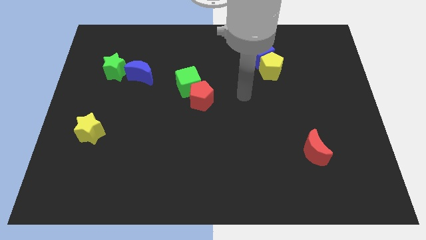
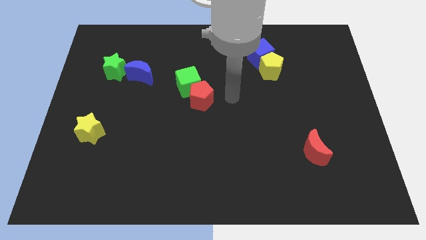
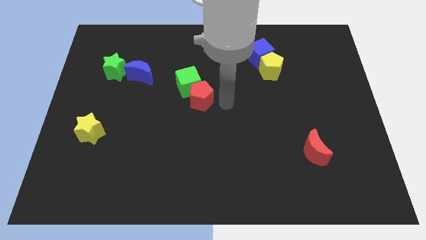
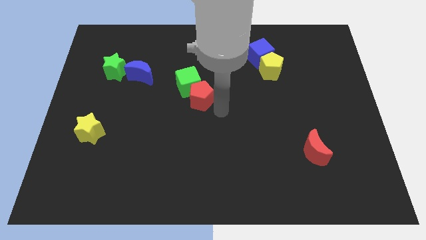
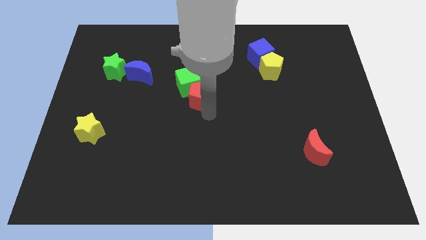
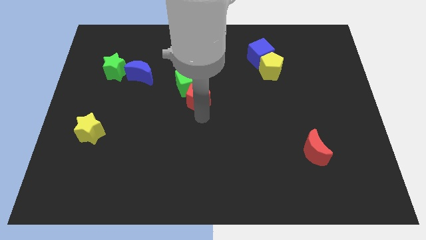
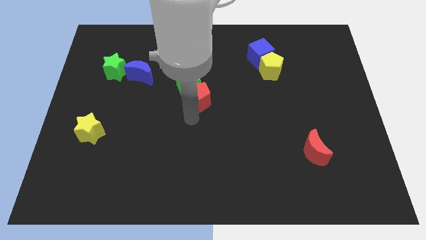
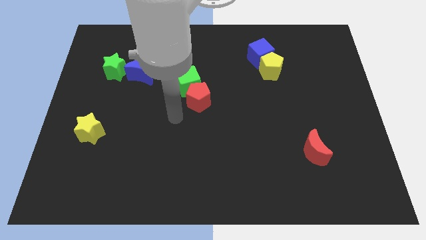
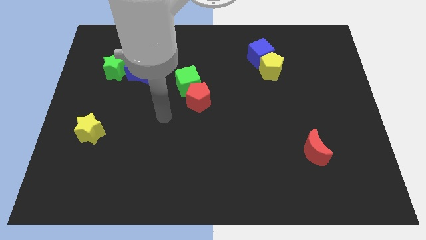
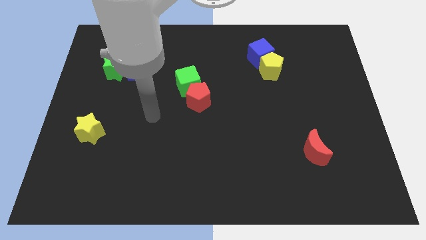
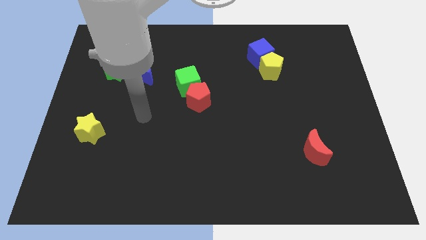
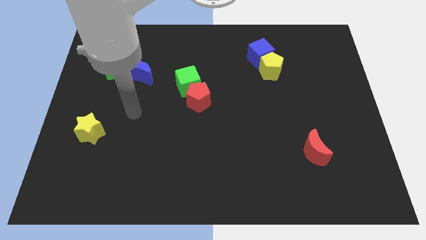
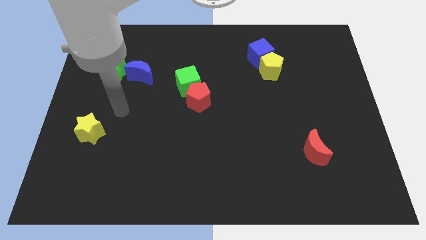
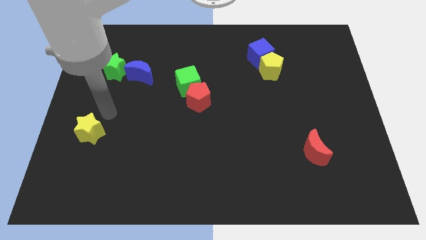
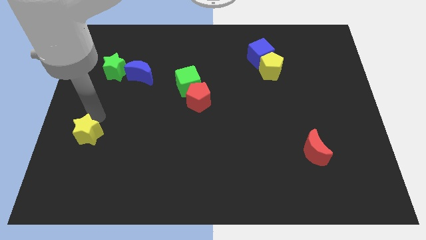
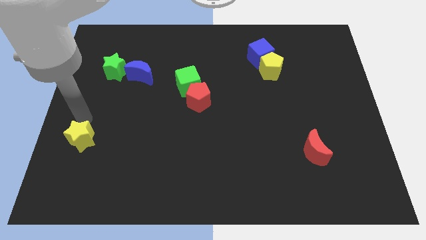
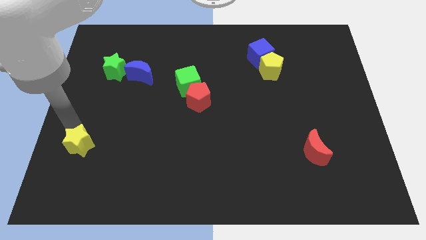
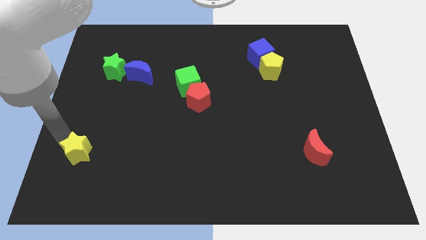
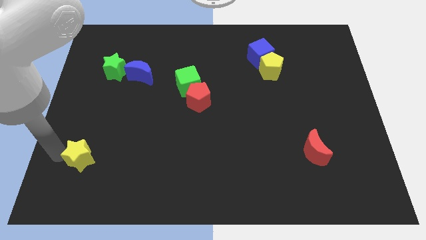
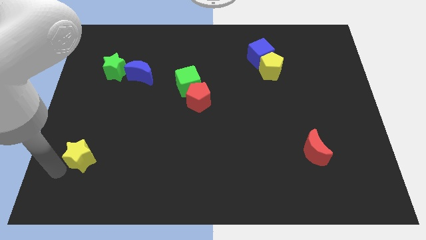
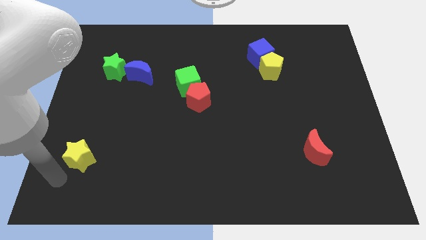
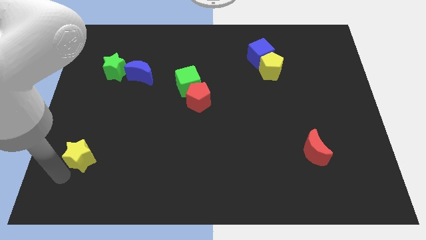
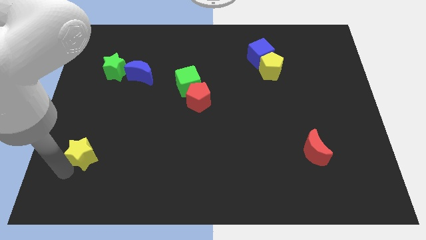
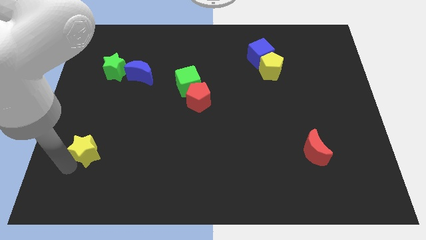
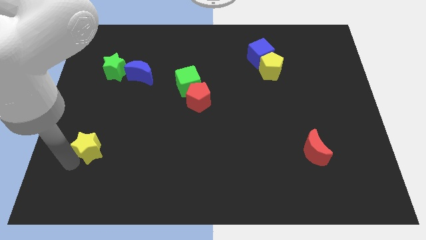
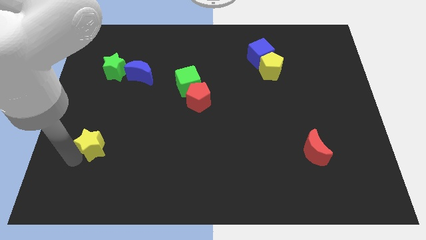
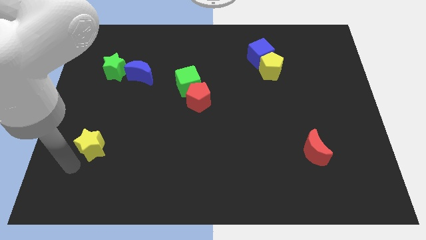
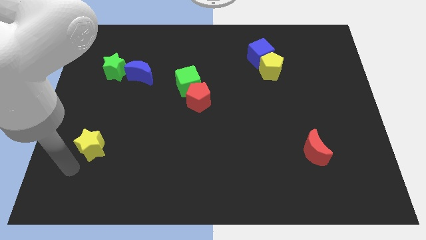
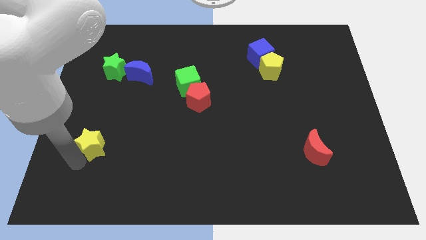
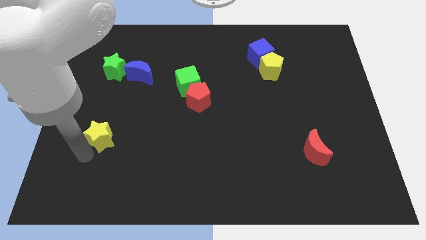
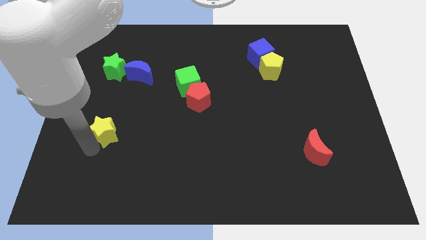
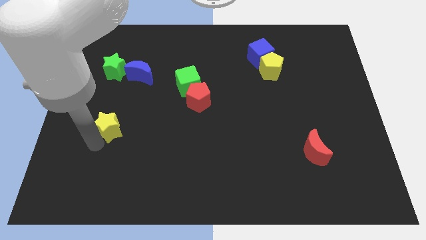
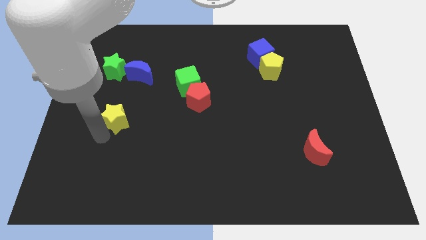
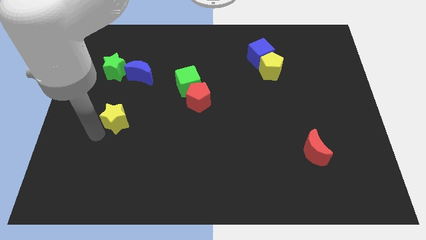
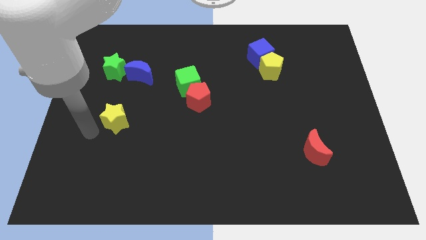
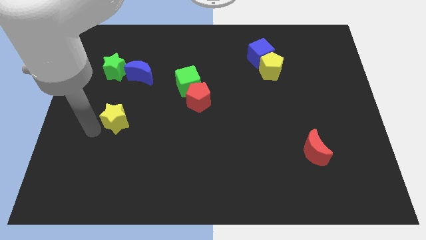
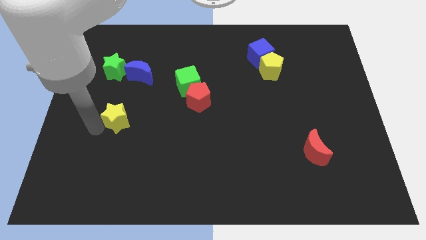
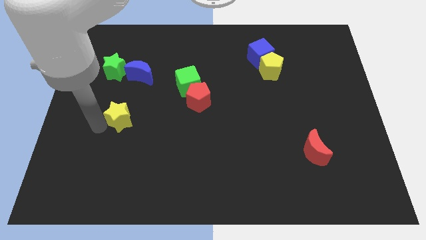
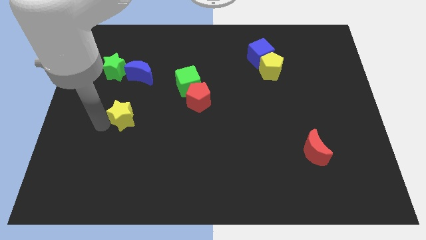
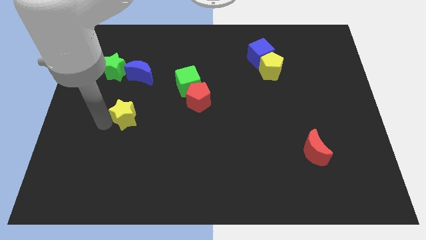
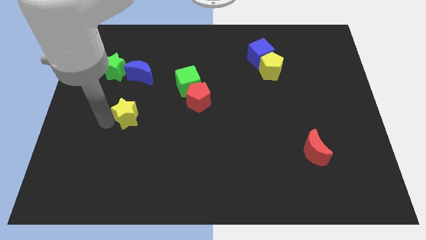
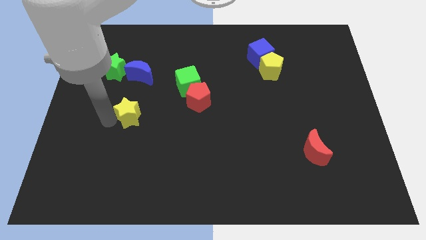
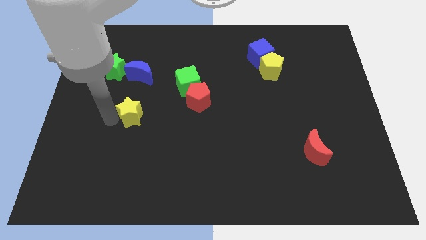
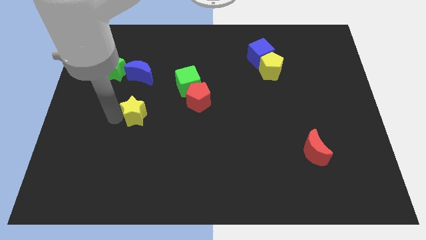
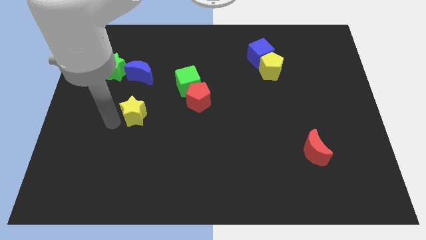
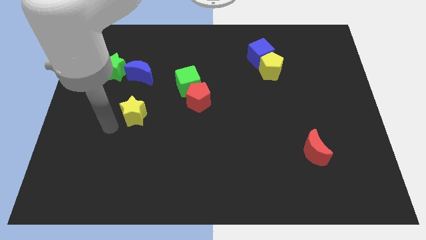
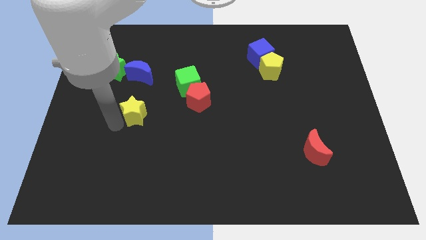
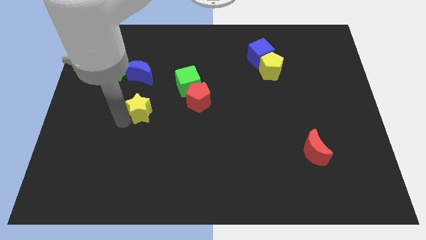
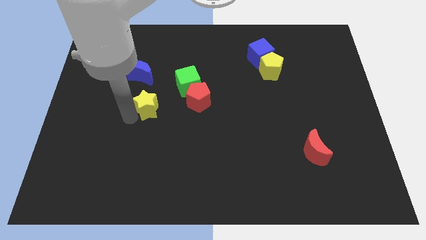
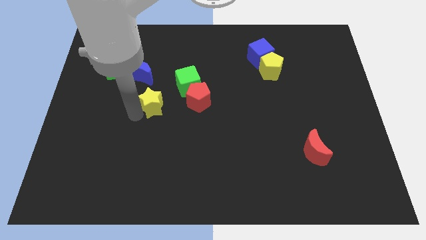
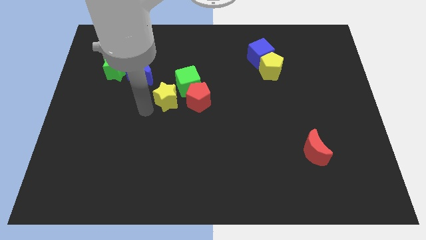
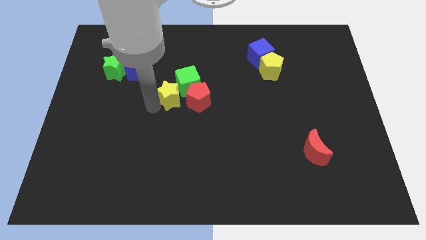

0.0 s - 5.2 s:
slide the yellow star close to the green cube

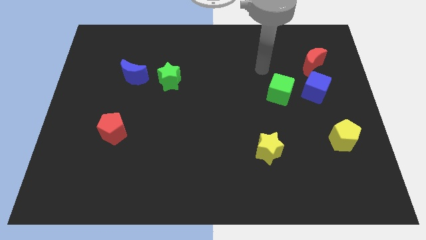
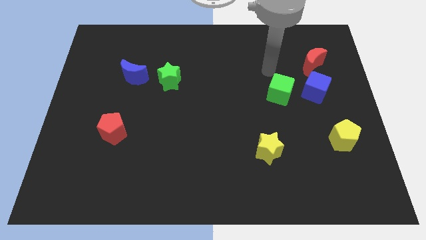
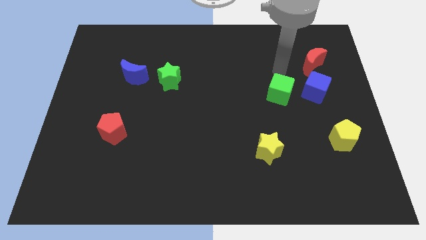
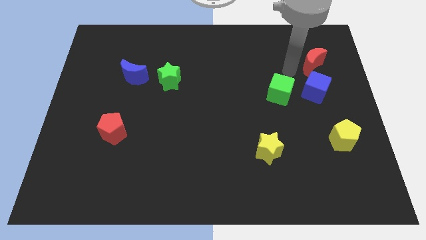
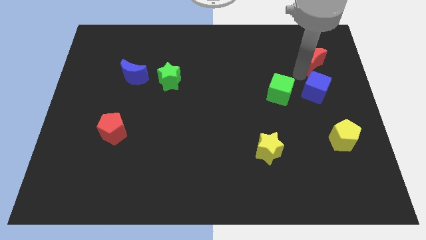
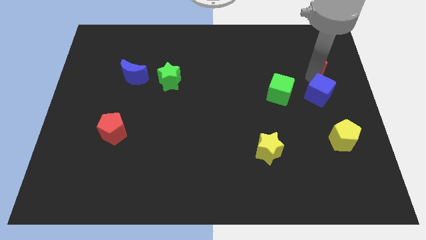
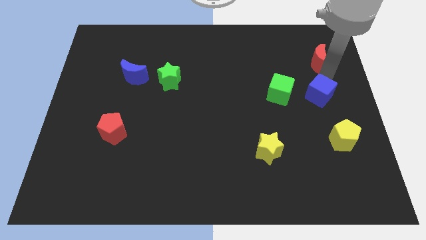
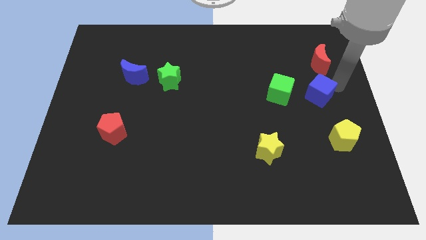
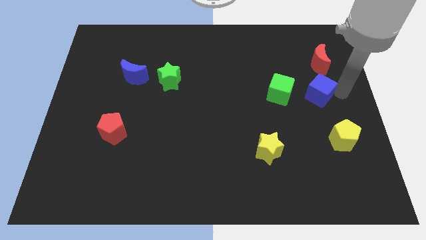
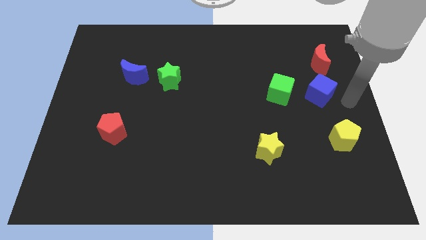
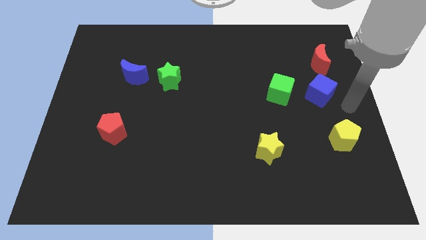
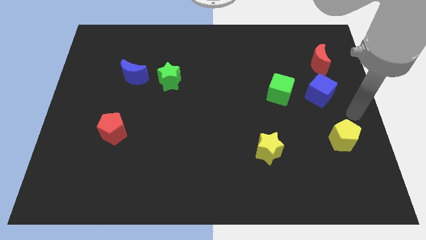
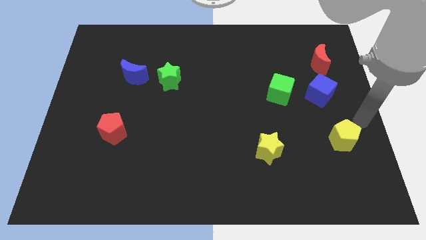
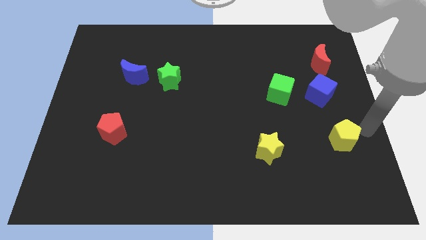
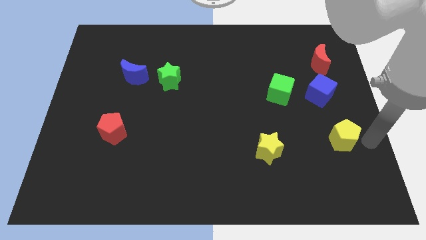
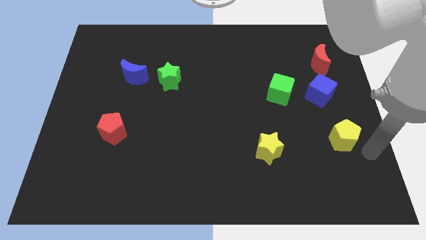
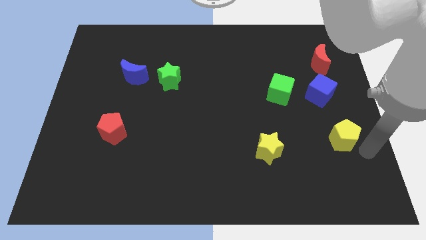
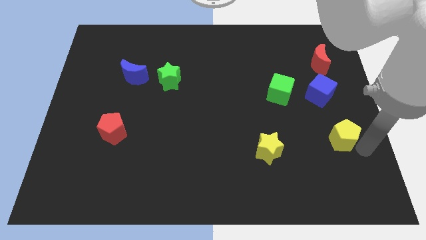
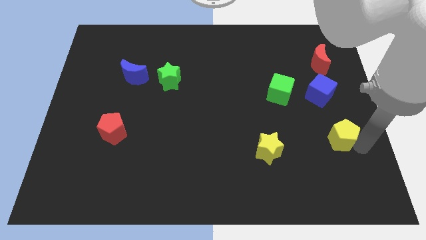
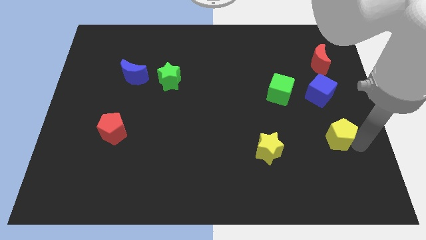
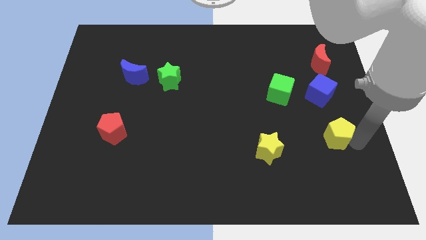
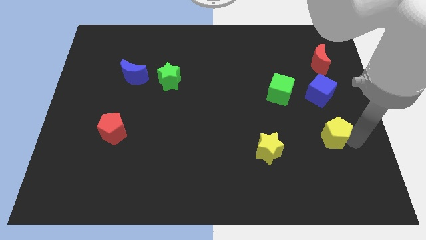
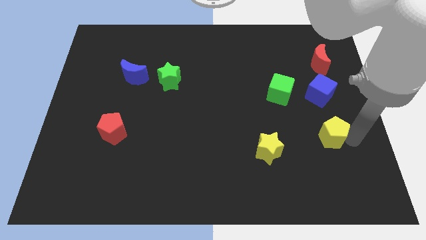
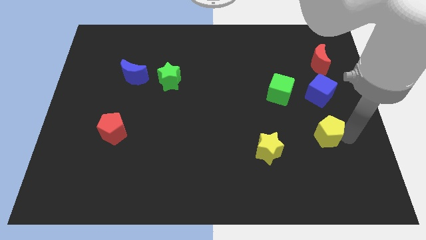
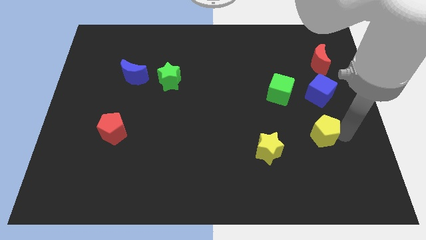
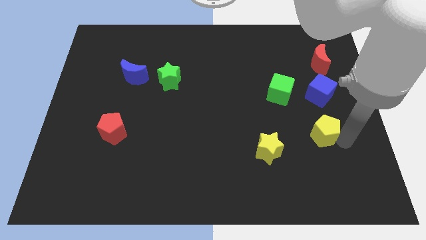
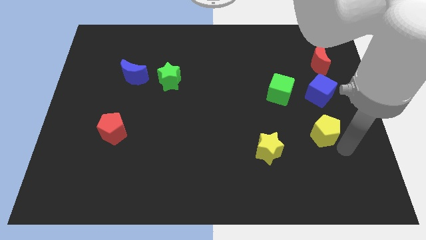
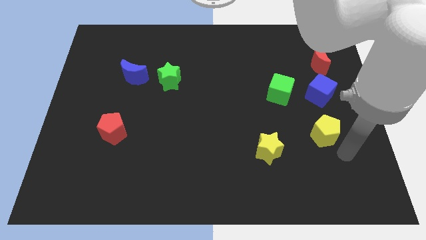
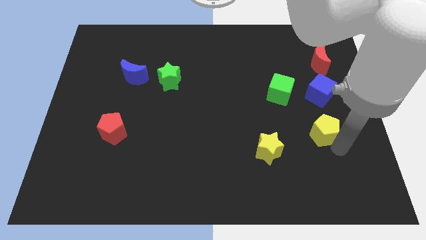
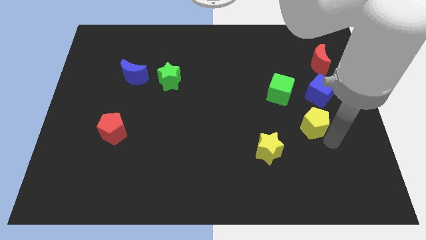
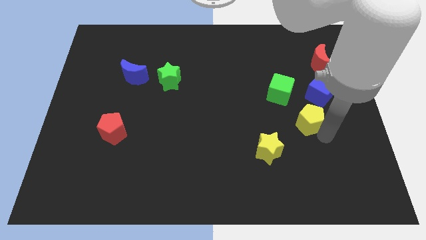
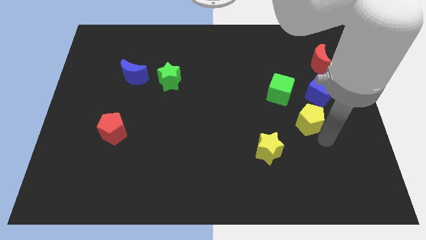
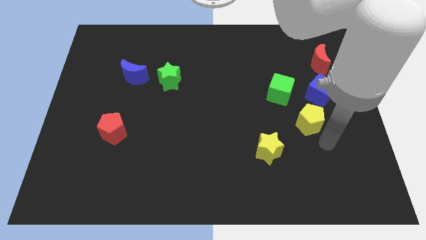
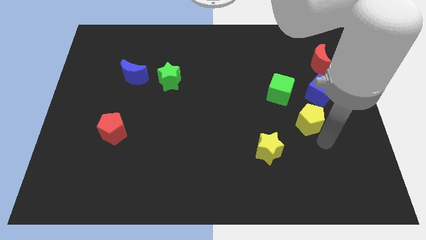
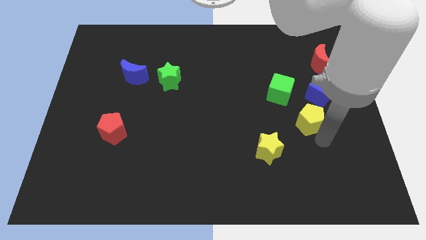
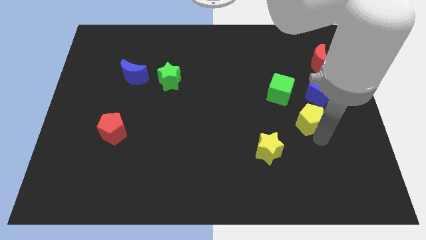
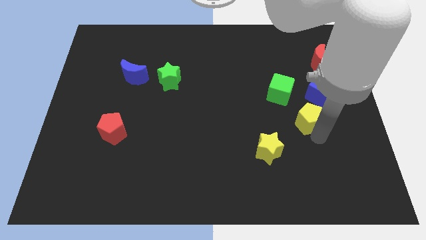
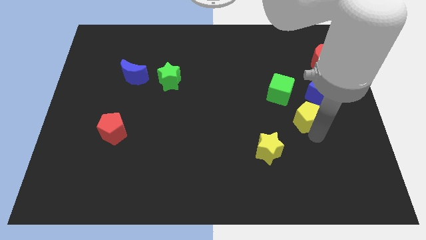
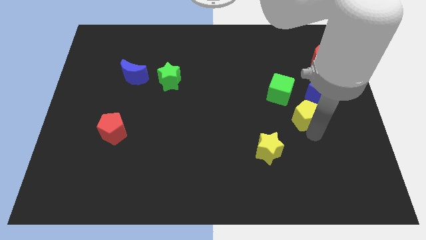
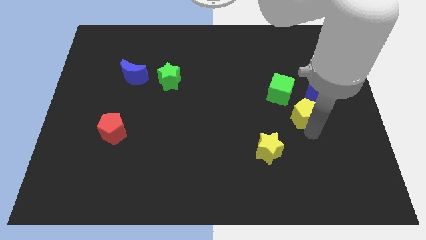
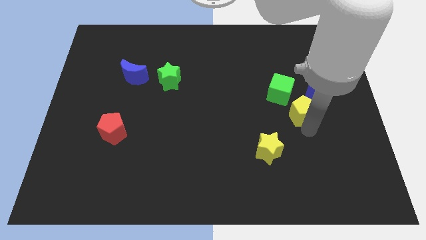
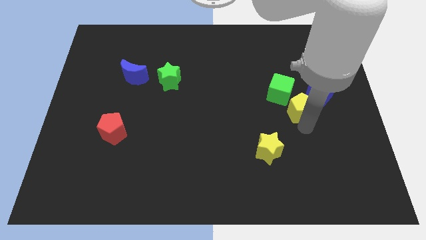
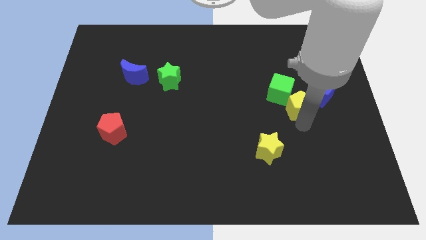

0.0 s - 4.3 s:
push the yellow pentagon next to the green cube
